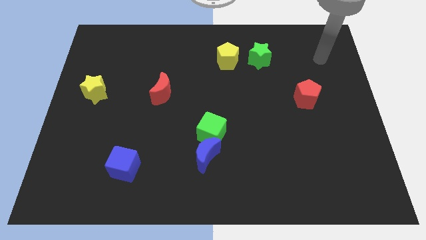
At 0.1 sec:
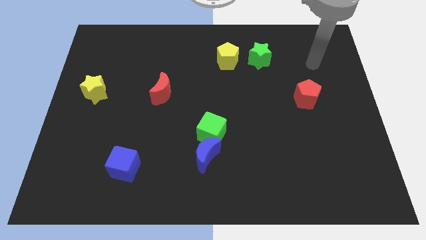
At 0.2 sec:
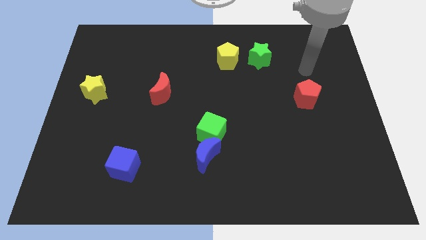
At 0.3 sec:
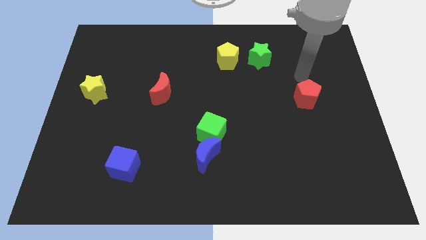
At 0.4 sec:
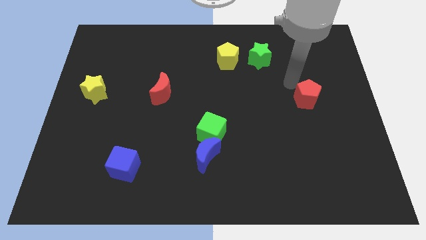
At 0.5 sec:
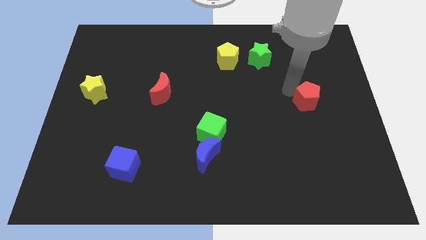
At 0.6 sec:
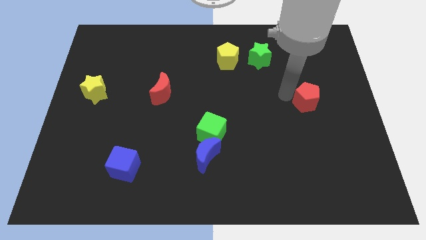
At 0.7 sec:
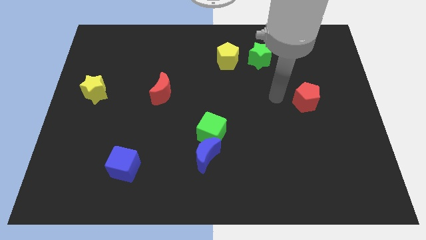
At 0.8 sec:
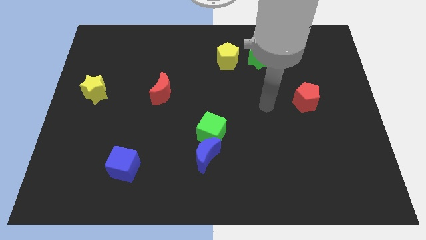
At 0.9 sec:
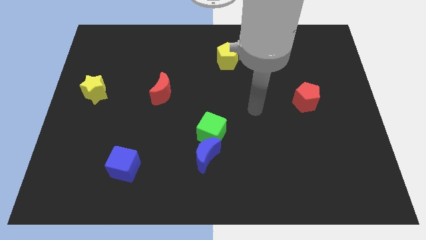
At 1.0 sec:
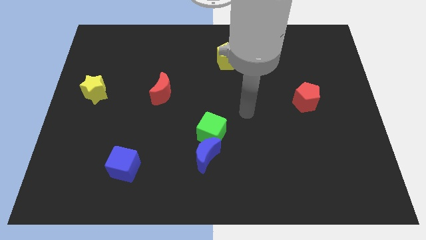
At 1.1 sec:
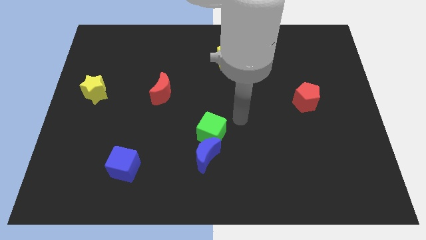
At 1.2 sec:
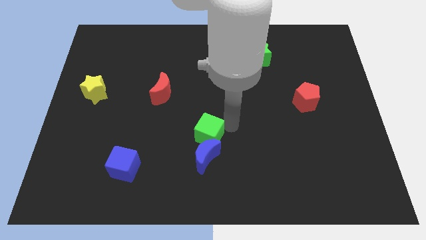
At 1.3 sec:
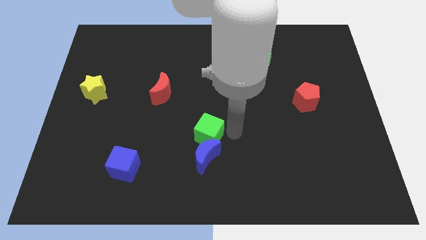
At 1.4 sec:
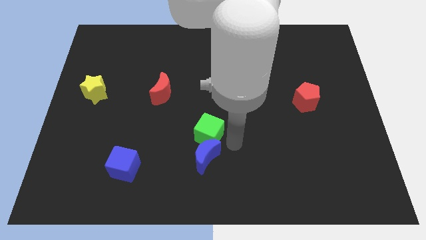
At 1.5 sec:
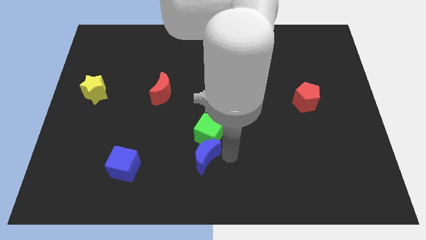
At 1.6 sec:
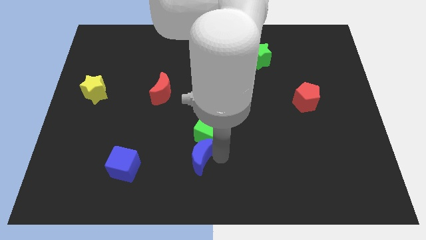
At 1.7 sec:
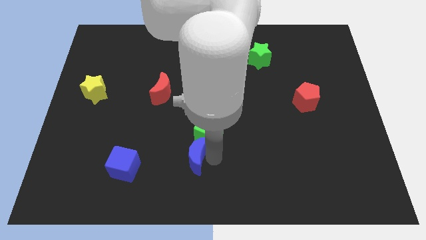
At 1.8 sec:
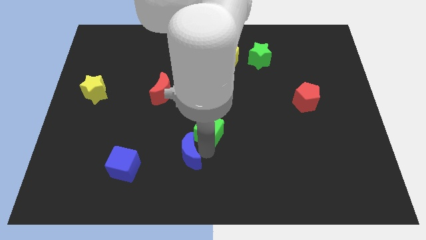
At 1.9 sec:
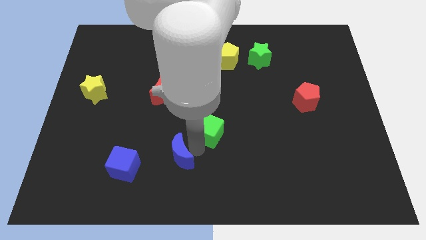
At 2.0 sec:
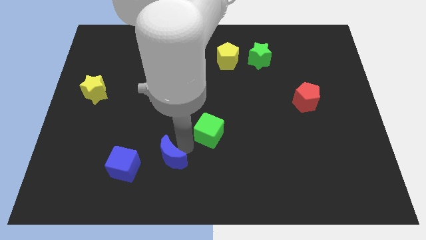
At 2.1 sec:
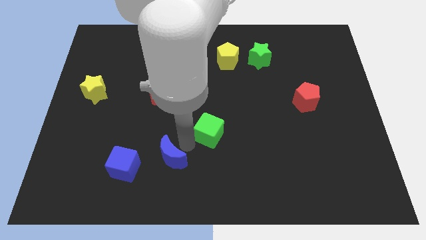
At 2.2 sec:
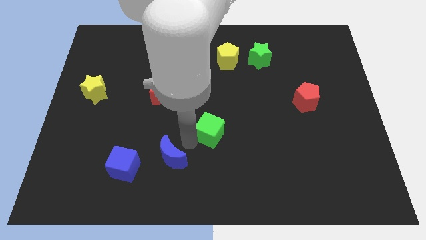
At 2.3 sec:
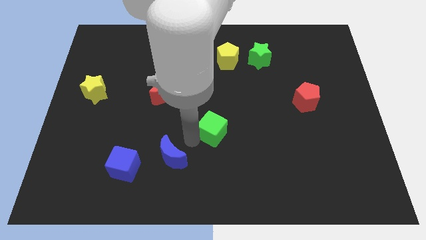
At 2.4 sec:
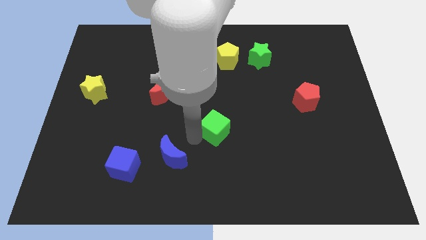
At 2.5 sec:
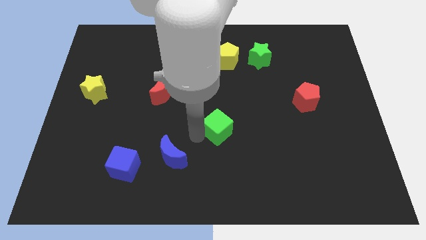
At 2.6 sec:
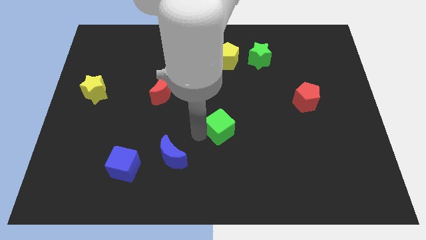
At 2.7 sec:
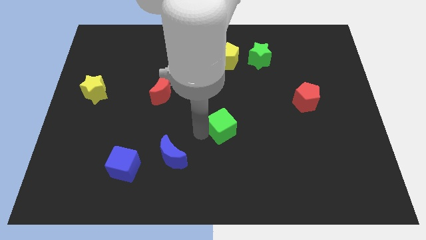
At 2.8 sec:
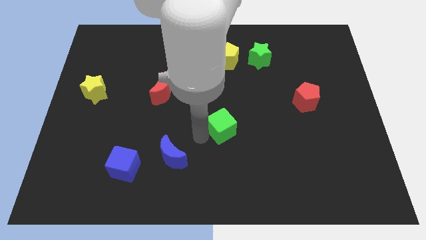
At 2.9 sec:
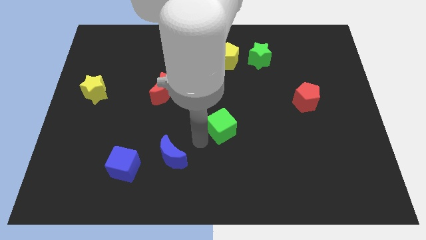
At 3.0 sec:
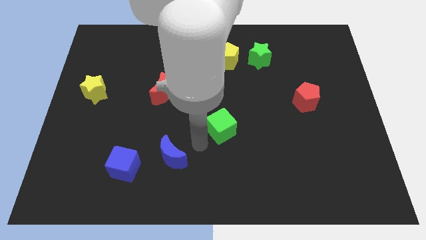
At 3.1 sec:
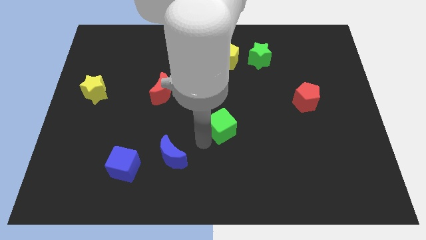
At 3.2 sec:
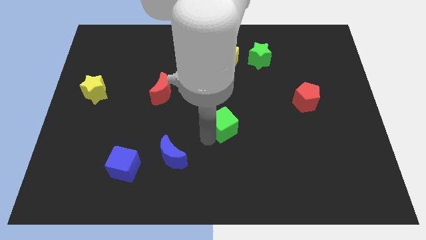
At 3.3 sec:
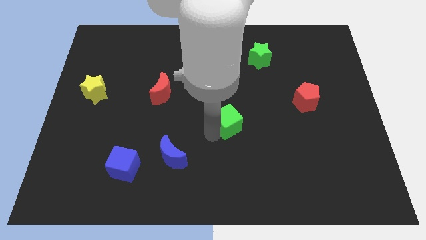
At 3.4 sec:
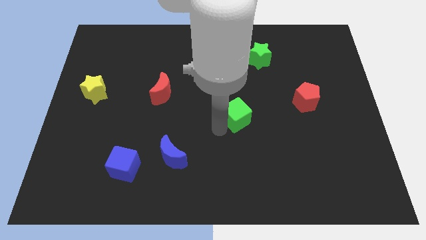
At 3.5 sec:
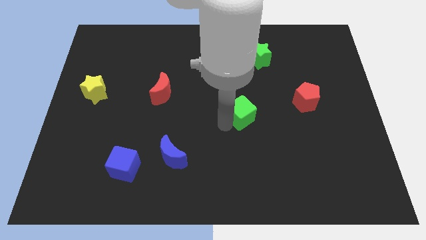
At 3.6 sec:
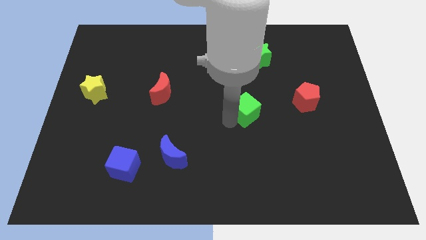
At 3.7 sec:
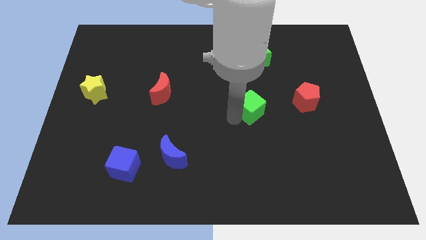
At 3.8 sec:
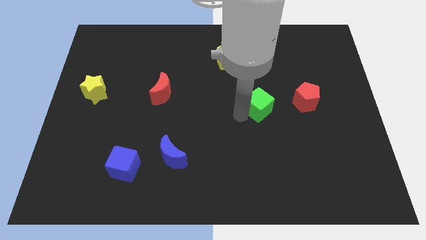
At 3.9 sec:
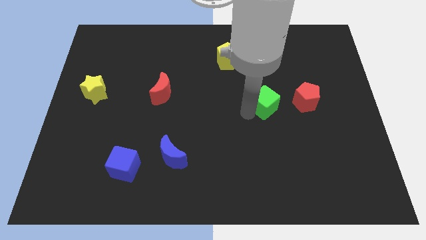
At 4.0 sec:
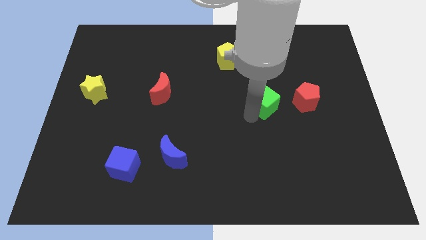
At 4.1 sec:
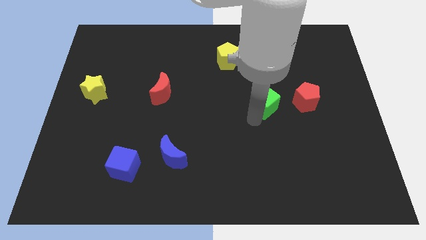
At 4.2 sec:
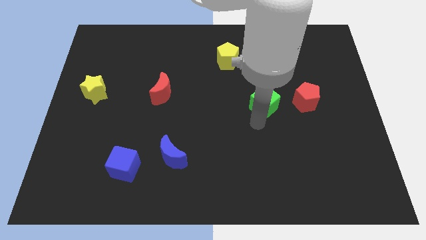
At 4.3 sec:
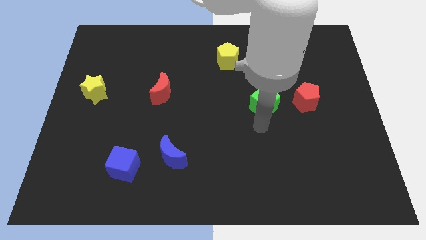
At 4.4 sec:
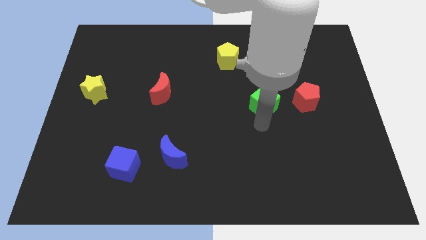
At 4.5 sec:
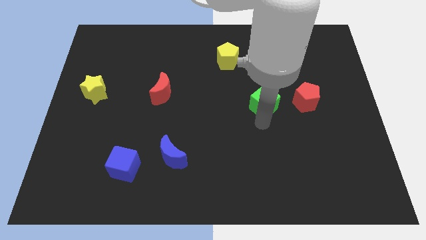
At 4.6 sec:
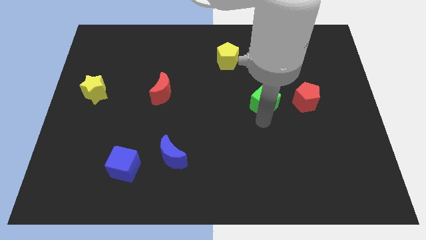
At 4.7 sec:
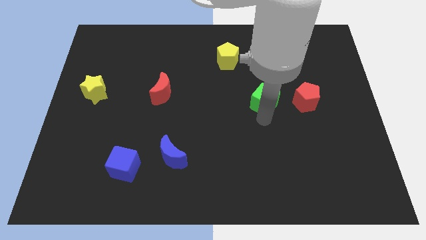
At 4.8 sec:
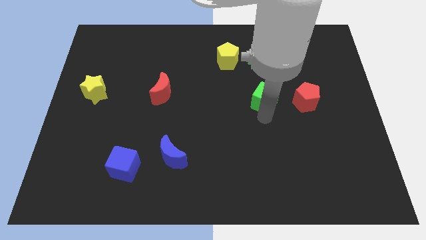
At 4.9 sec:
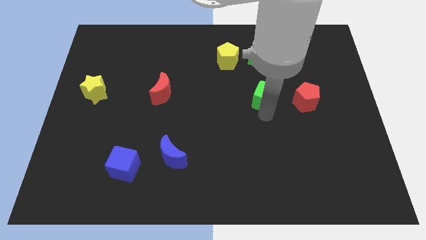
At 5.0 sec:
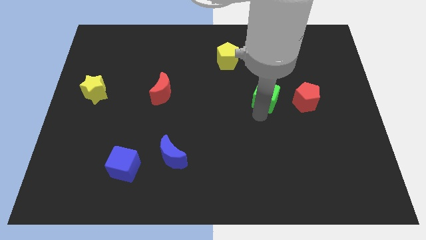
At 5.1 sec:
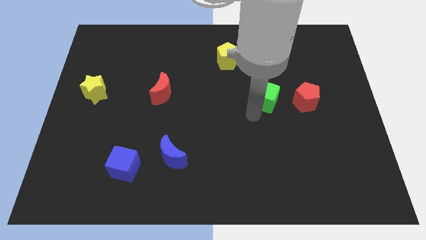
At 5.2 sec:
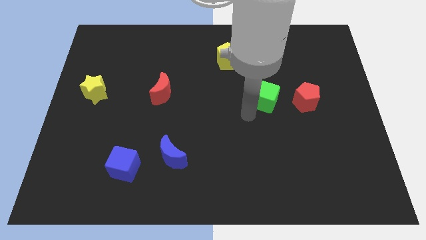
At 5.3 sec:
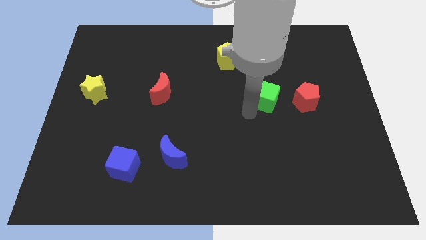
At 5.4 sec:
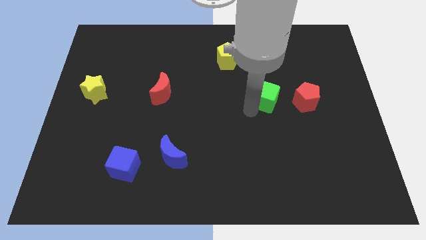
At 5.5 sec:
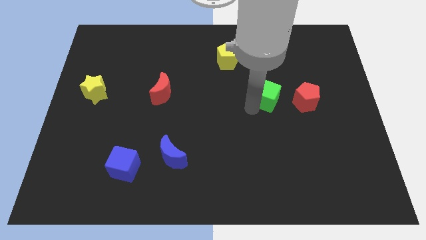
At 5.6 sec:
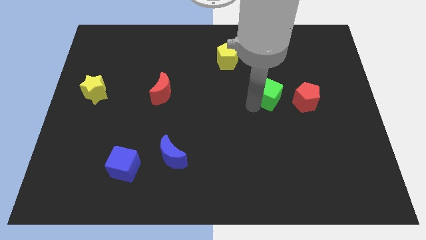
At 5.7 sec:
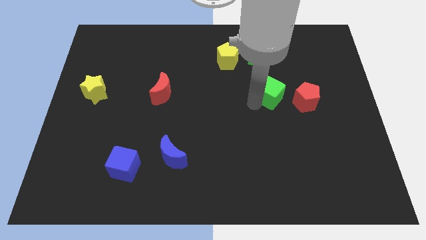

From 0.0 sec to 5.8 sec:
put the green cube to the top left side of the red pentagon

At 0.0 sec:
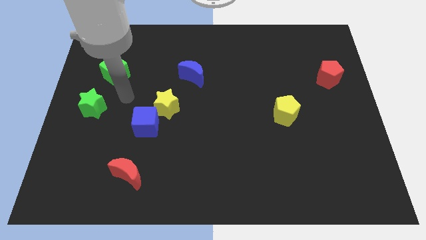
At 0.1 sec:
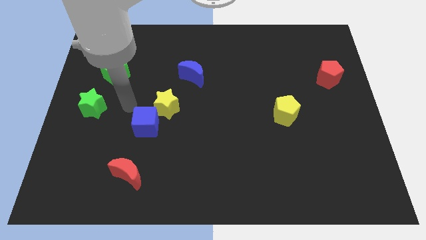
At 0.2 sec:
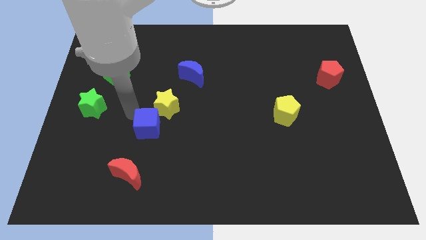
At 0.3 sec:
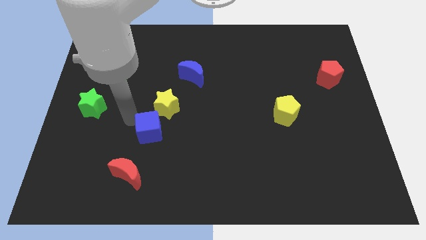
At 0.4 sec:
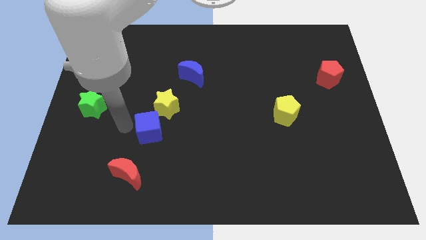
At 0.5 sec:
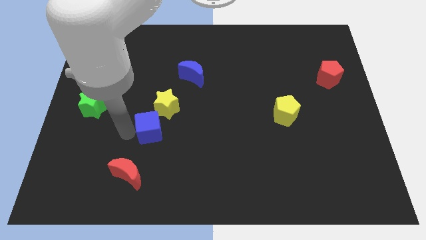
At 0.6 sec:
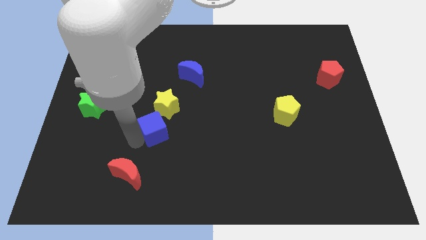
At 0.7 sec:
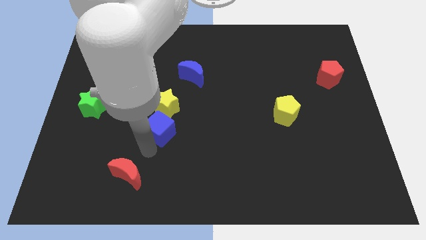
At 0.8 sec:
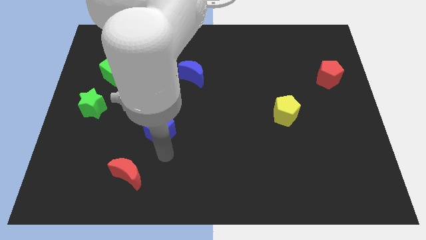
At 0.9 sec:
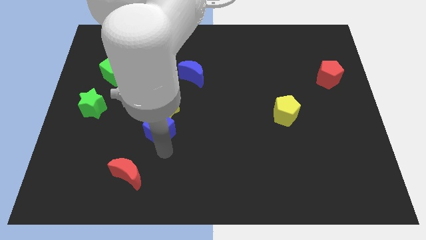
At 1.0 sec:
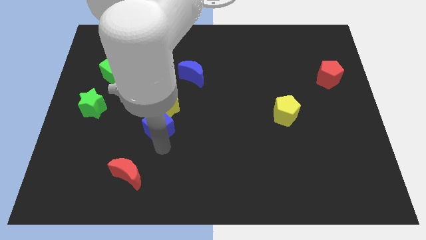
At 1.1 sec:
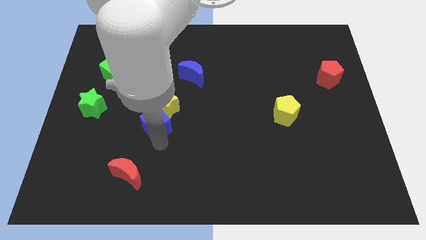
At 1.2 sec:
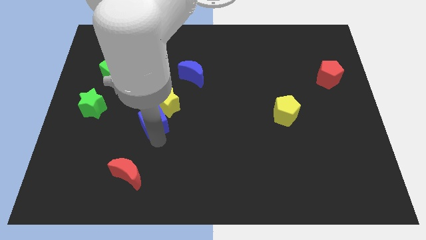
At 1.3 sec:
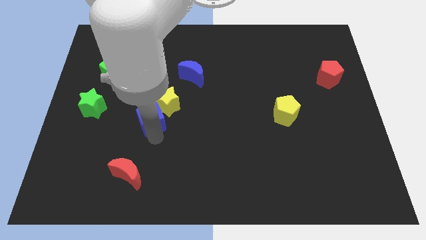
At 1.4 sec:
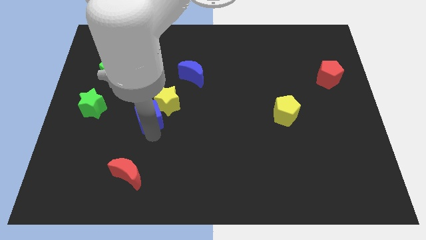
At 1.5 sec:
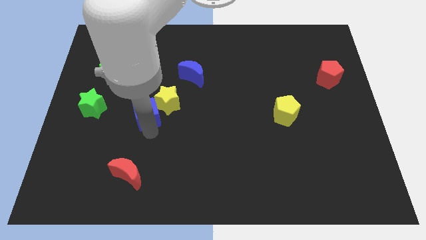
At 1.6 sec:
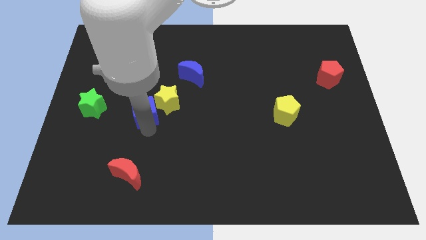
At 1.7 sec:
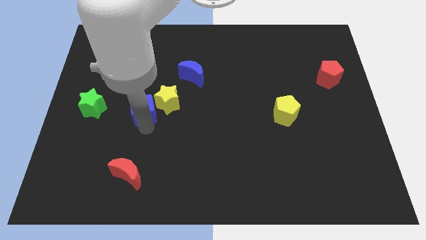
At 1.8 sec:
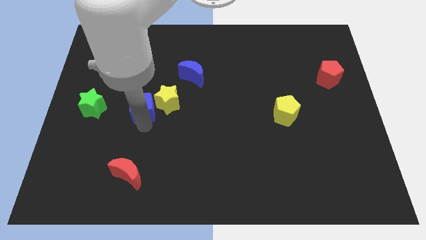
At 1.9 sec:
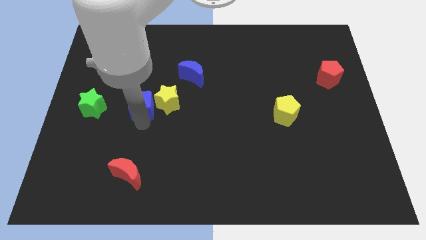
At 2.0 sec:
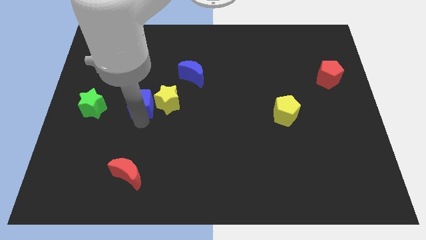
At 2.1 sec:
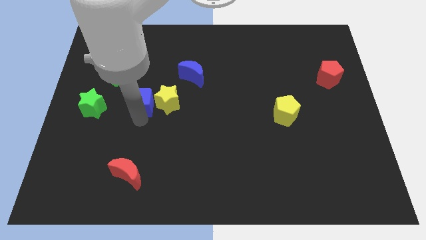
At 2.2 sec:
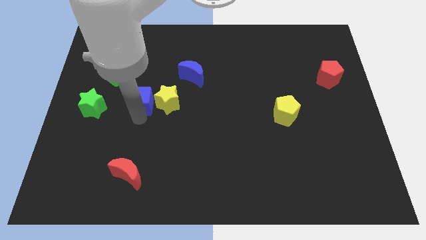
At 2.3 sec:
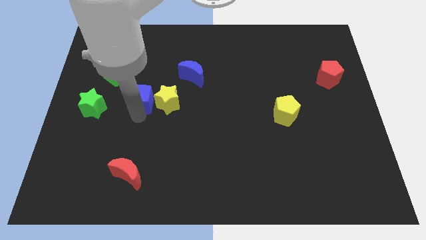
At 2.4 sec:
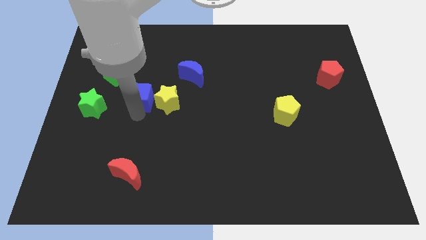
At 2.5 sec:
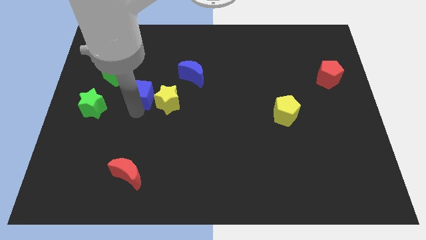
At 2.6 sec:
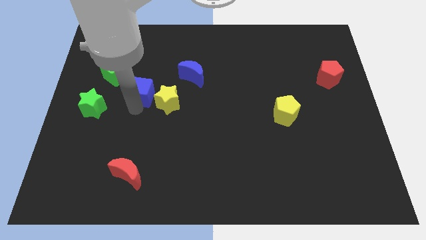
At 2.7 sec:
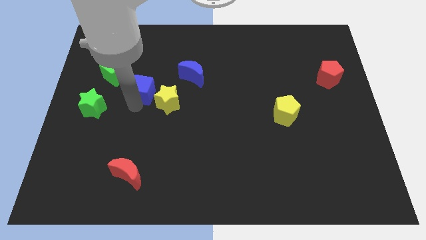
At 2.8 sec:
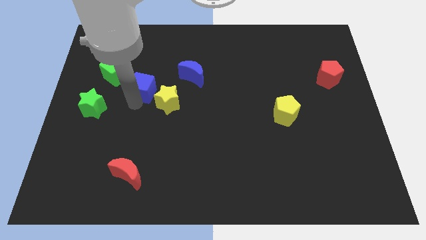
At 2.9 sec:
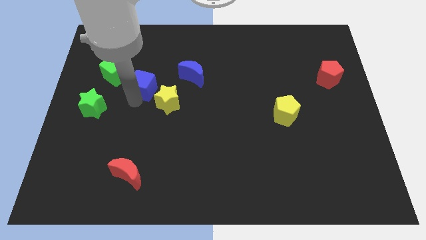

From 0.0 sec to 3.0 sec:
put the blue cube to the right side of the green cube
